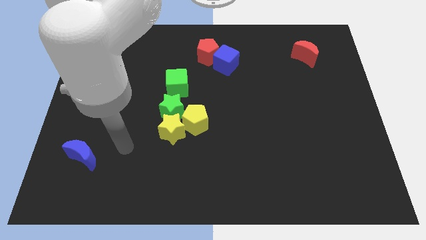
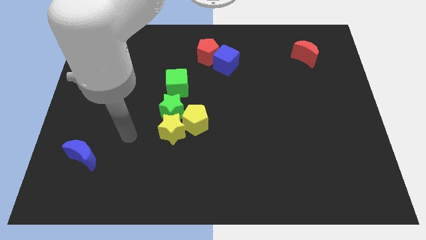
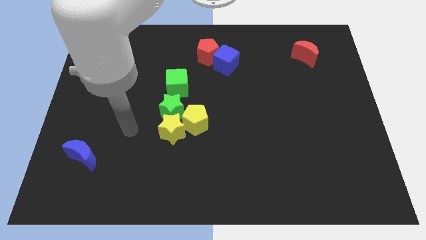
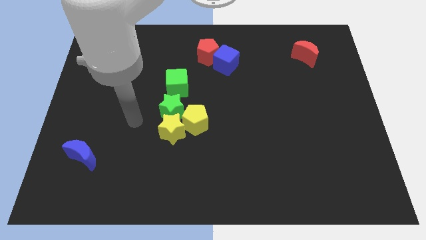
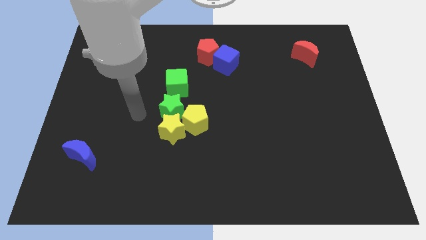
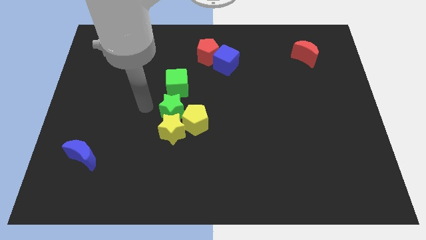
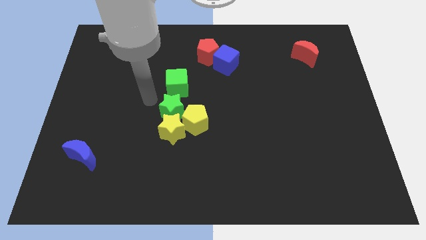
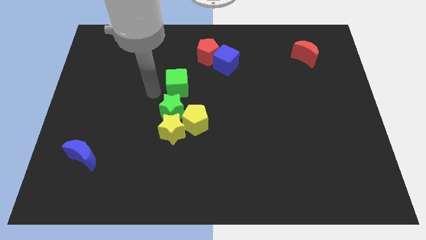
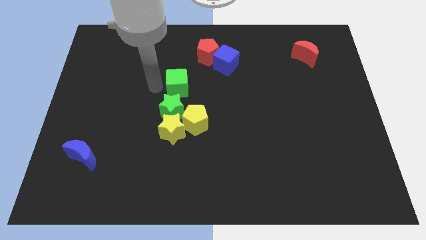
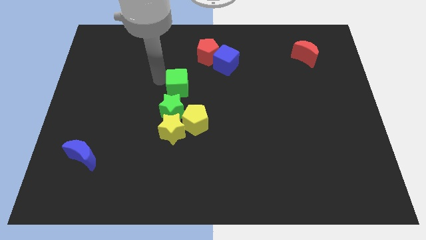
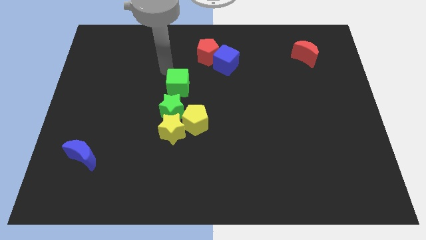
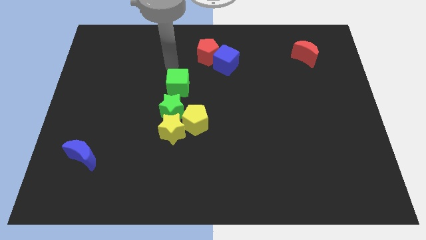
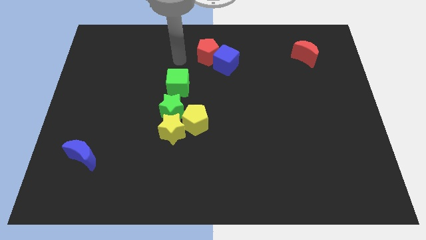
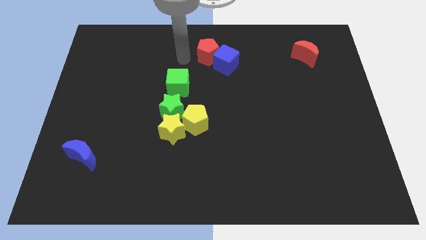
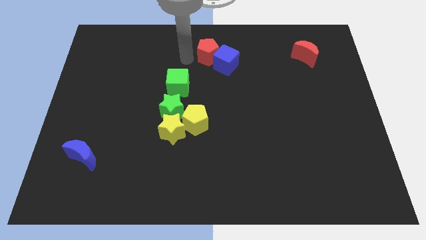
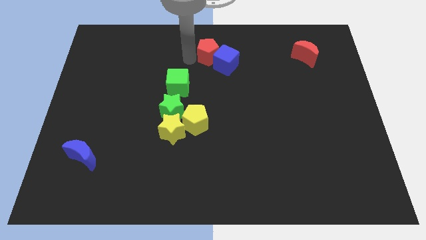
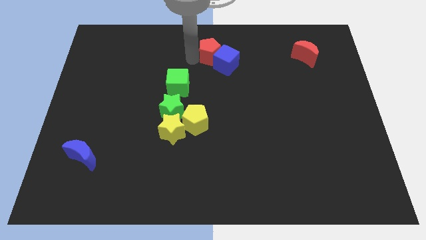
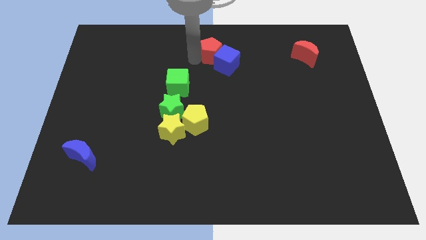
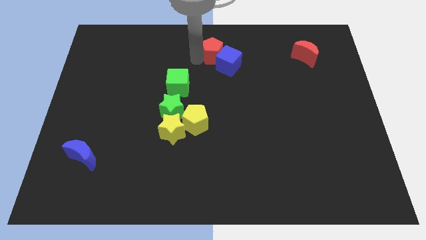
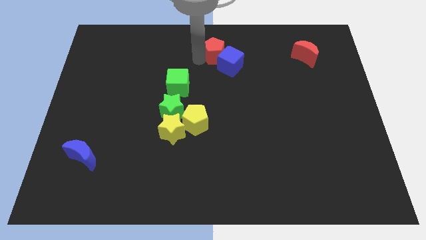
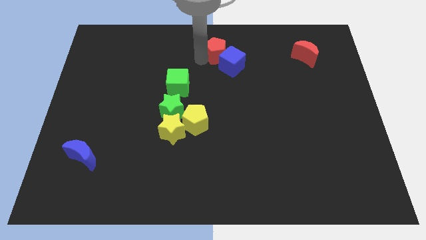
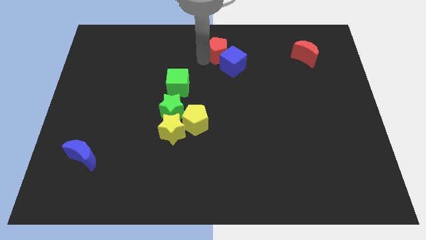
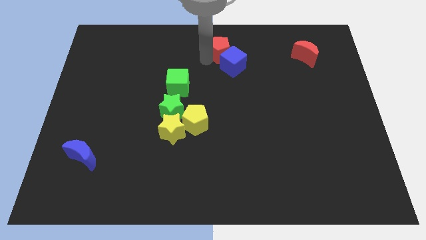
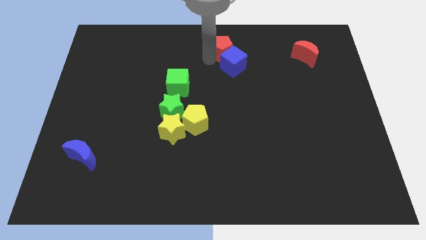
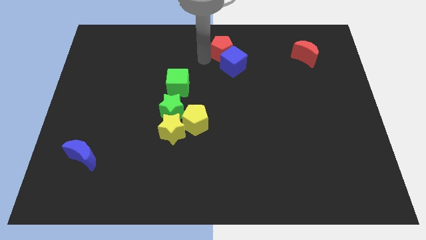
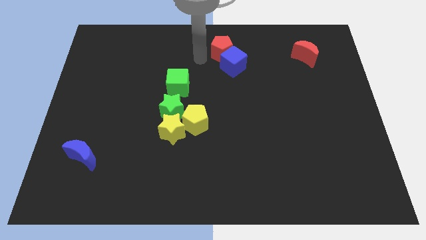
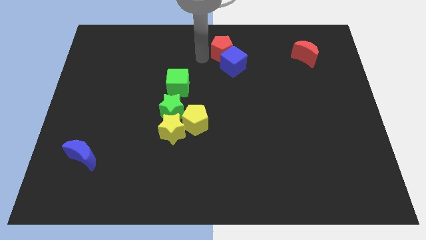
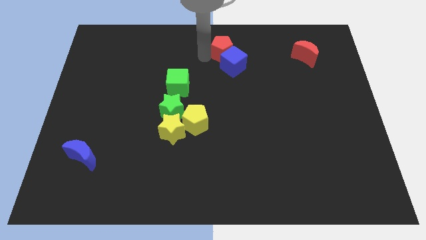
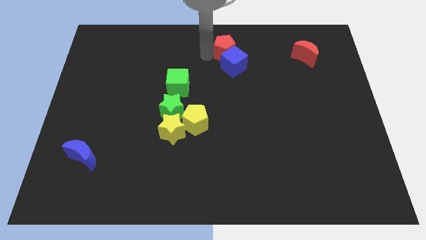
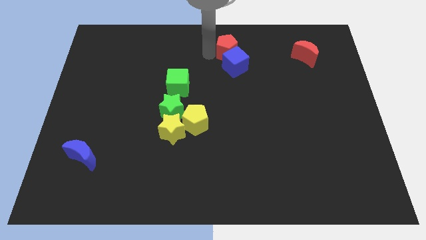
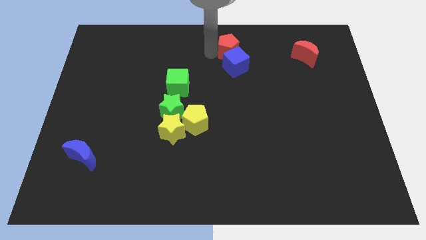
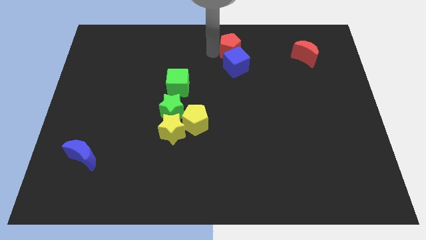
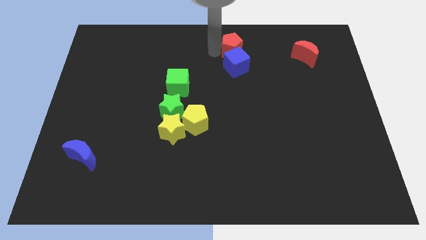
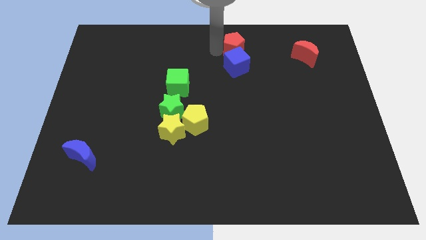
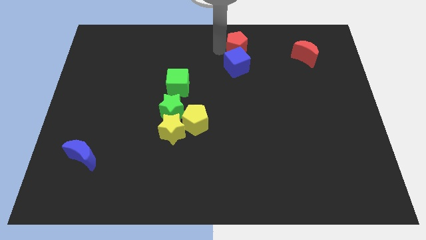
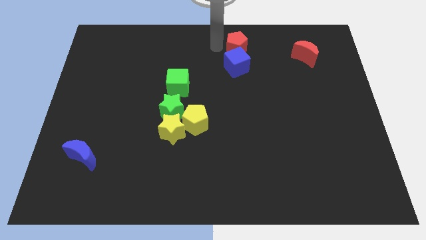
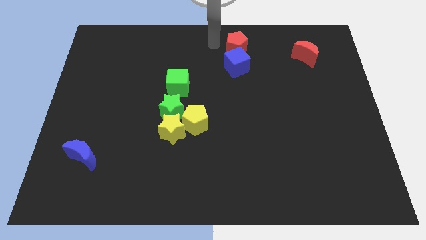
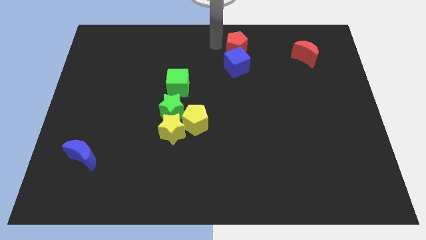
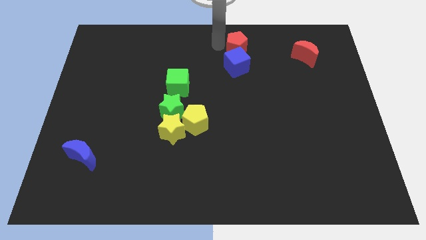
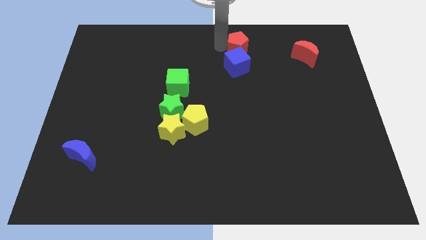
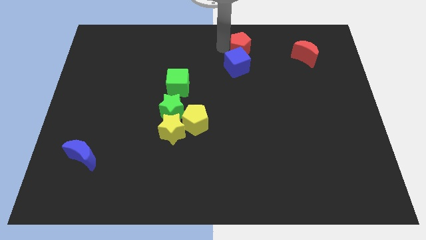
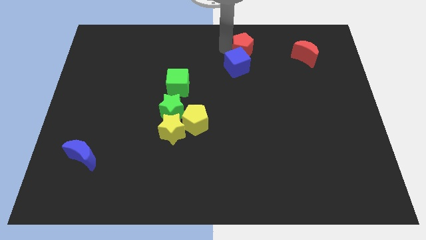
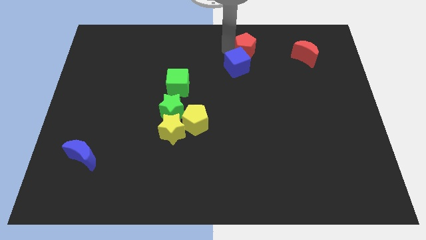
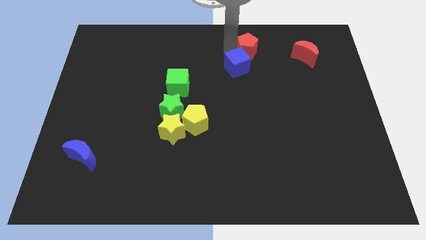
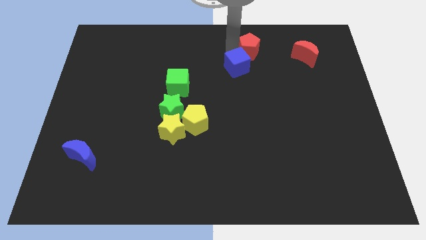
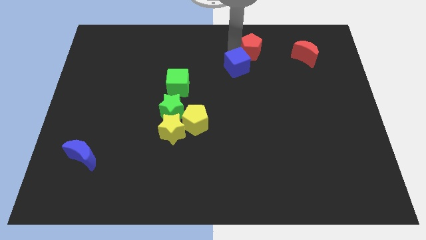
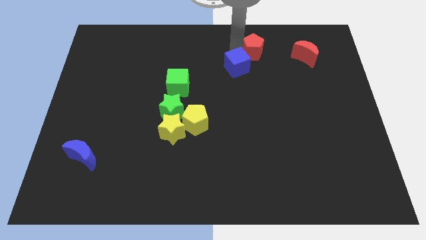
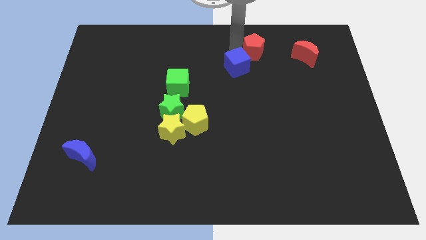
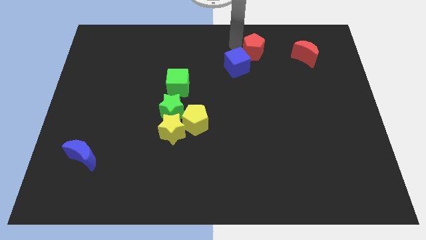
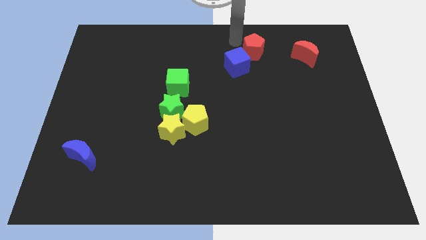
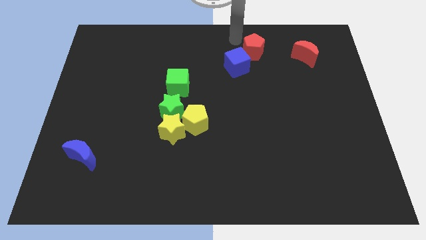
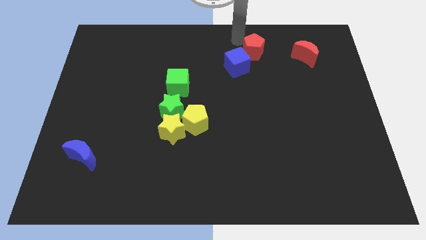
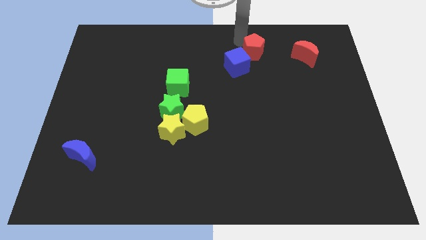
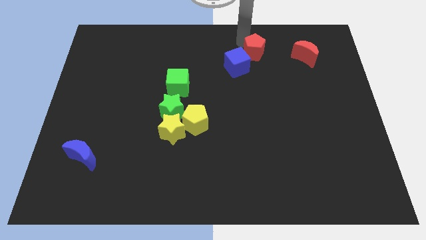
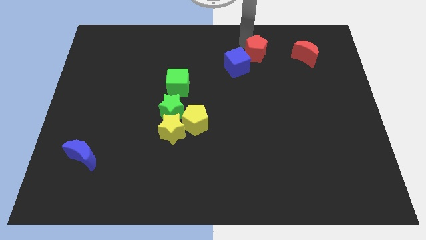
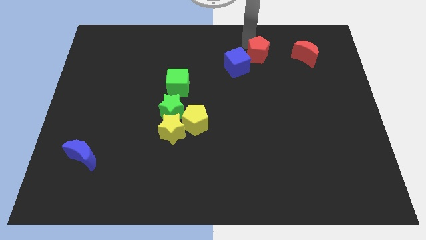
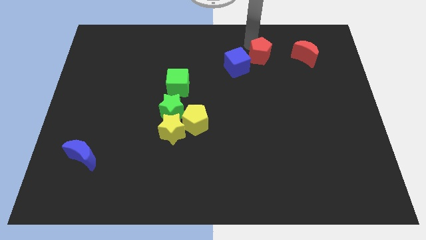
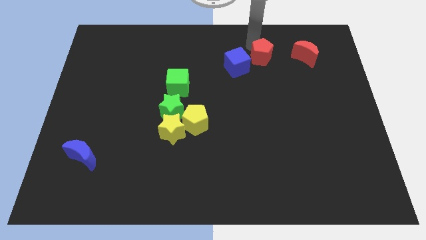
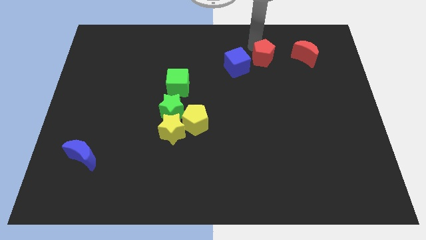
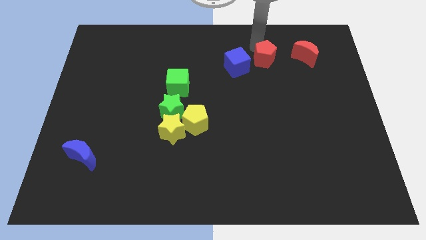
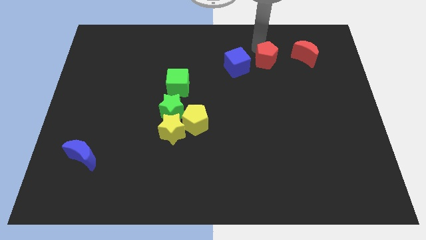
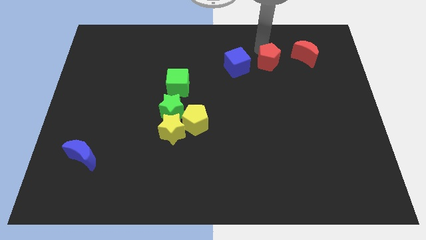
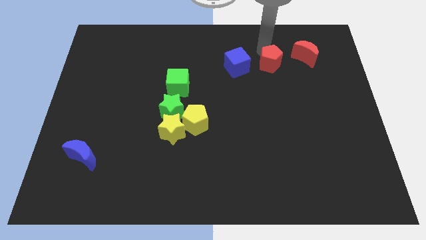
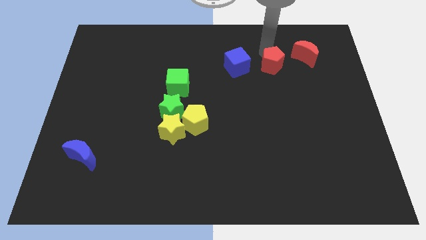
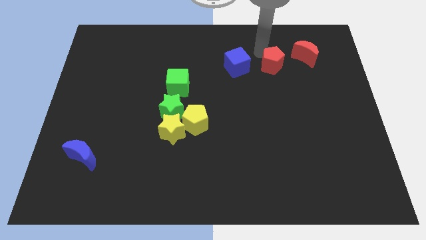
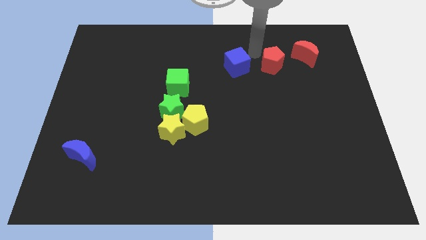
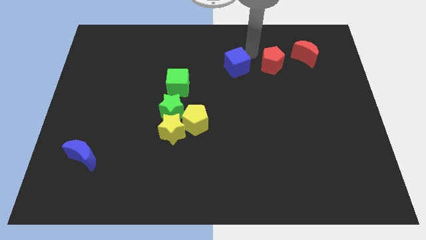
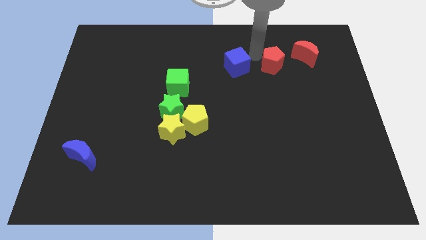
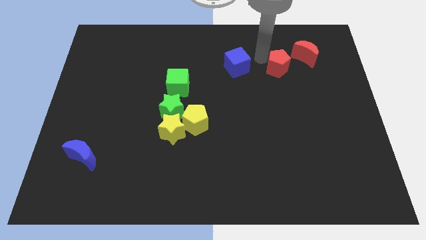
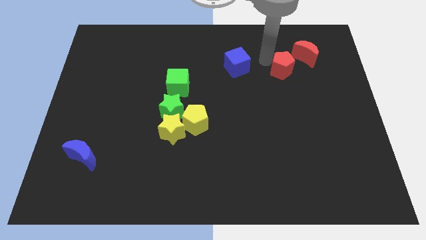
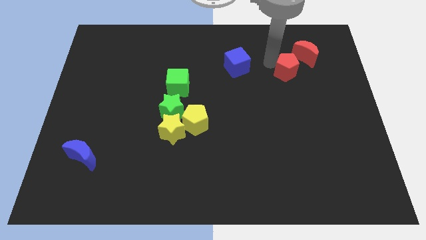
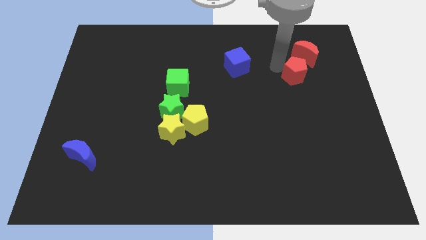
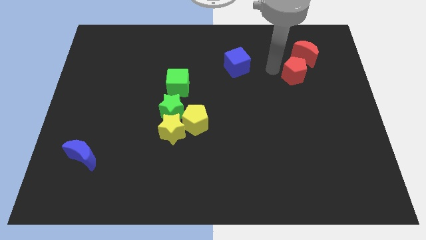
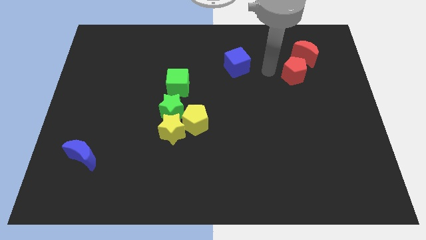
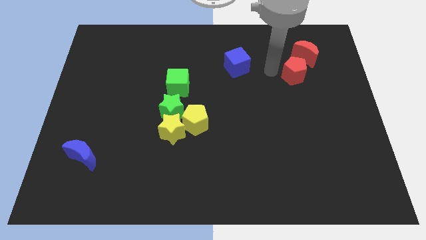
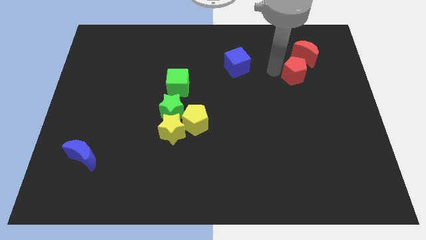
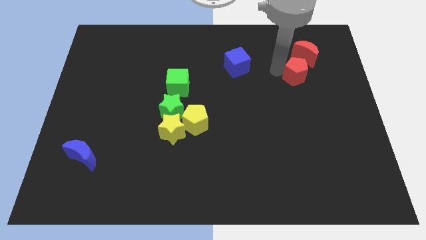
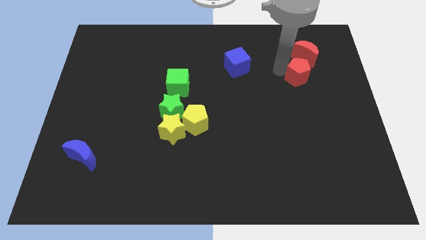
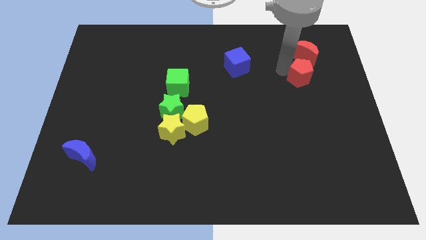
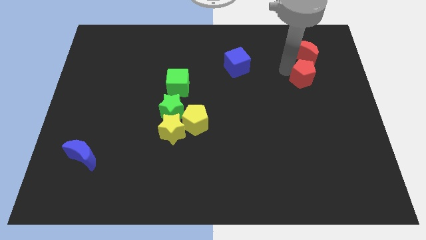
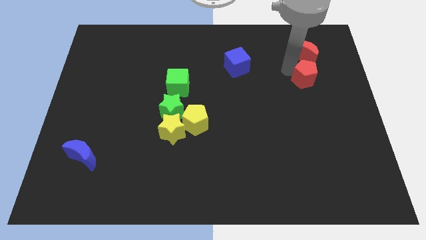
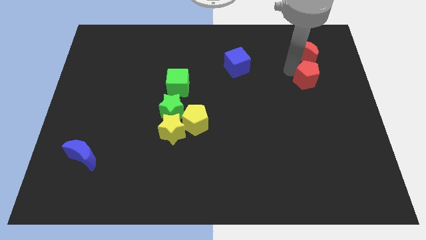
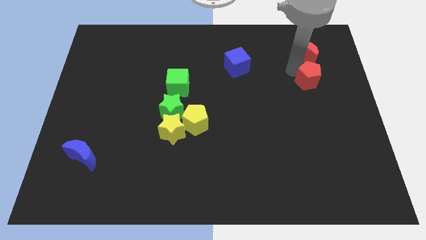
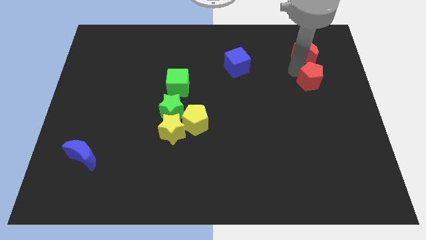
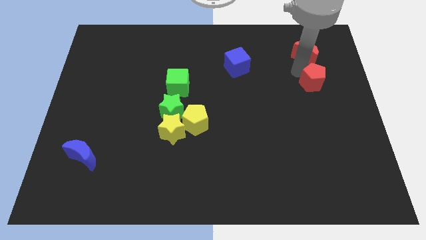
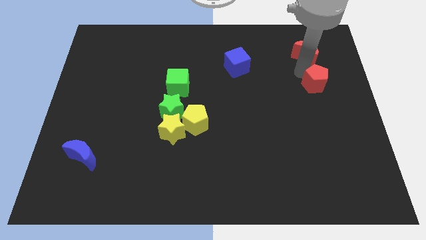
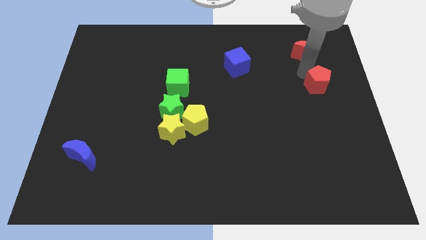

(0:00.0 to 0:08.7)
slide the red pentagon to the center right
